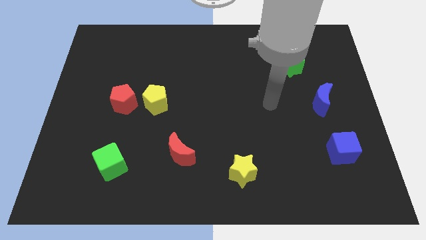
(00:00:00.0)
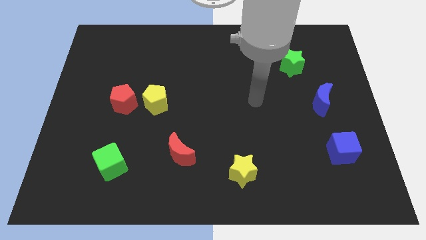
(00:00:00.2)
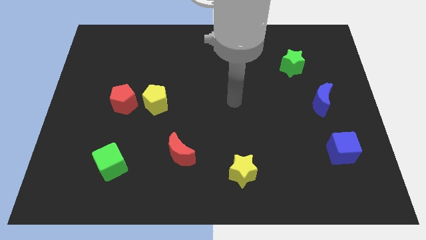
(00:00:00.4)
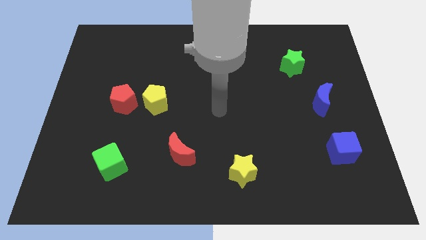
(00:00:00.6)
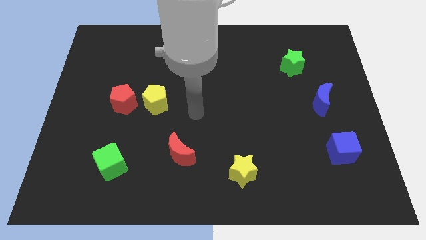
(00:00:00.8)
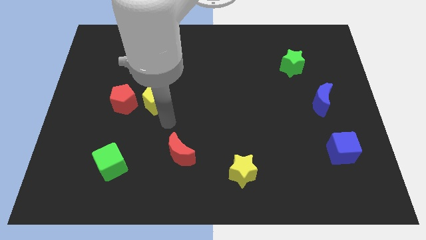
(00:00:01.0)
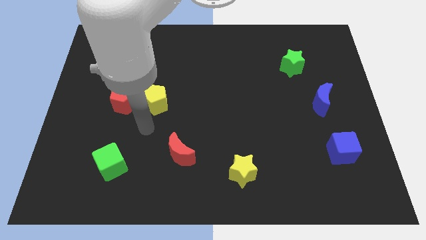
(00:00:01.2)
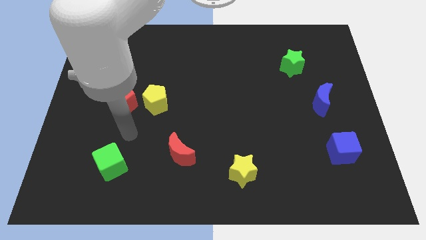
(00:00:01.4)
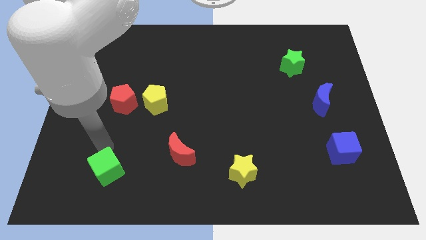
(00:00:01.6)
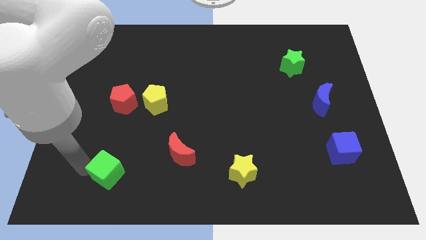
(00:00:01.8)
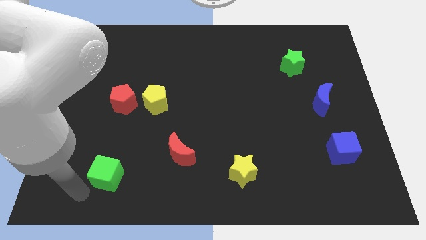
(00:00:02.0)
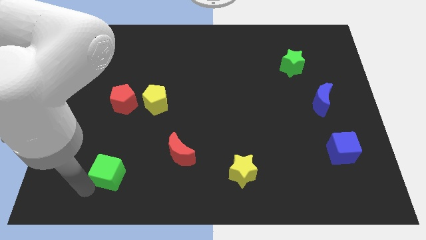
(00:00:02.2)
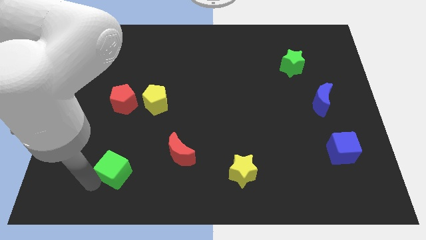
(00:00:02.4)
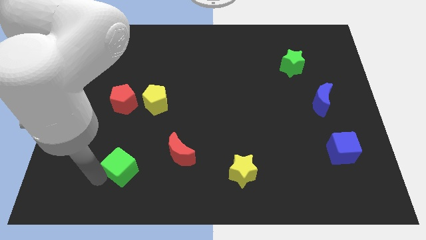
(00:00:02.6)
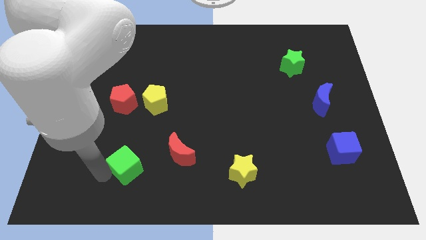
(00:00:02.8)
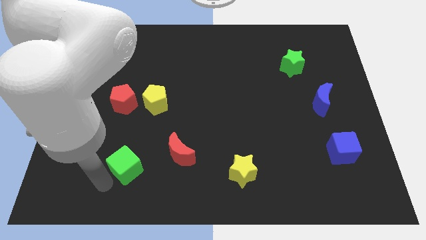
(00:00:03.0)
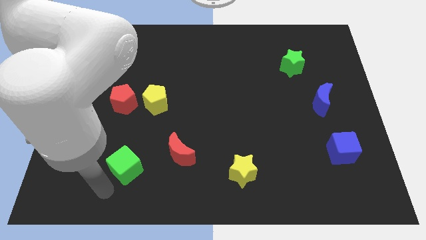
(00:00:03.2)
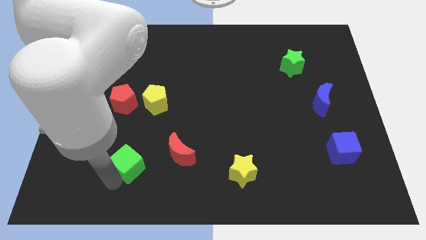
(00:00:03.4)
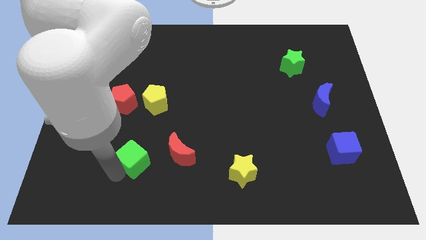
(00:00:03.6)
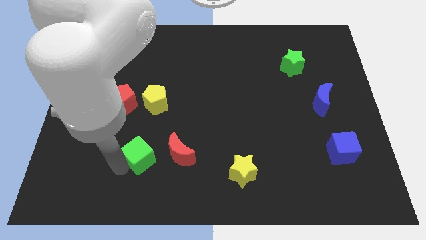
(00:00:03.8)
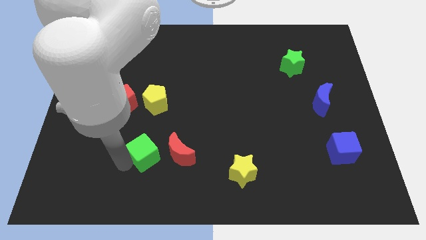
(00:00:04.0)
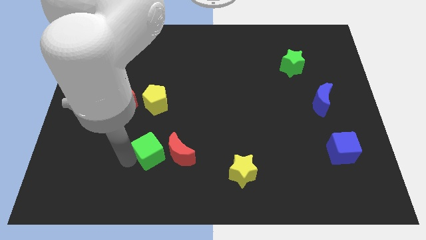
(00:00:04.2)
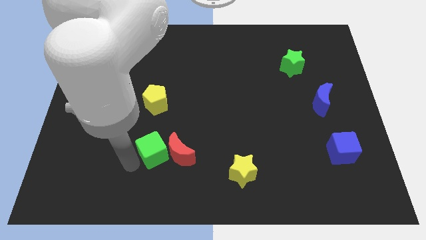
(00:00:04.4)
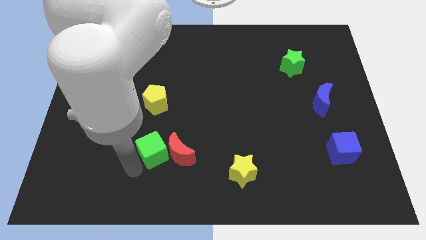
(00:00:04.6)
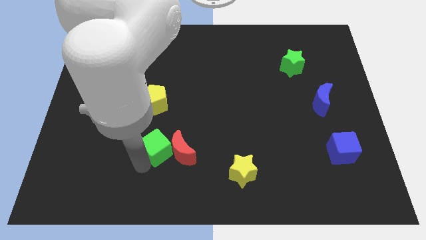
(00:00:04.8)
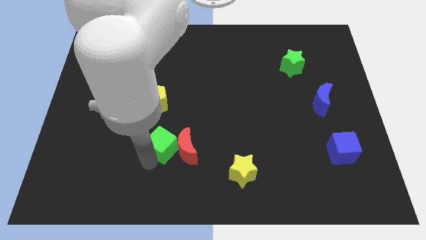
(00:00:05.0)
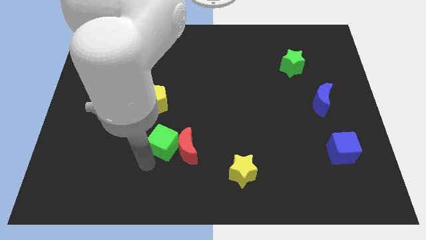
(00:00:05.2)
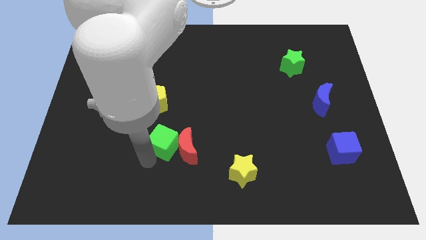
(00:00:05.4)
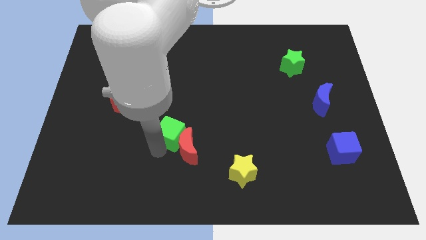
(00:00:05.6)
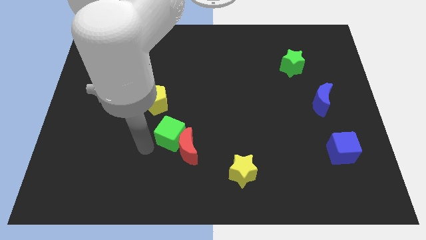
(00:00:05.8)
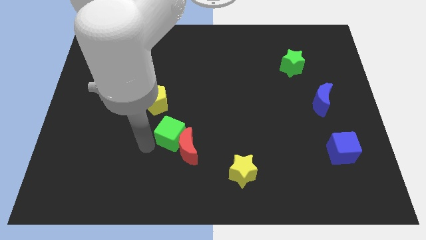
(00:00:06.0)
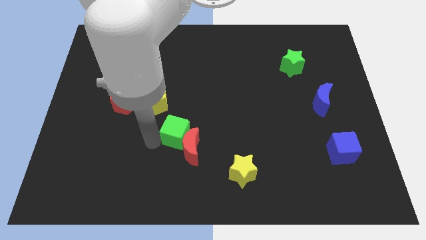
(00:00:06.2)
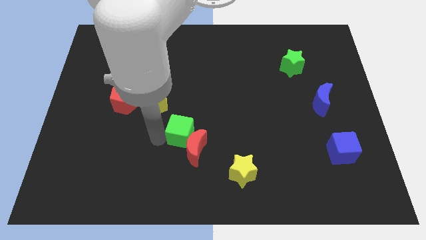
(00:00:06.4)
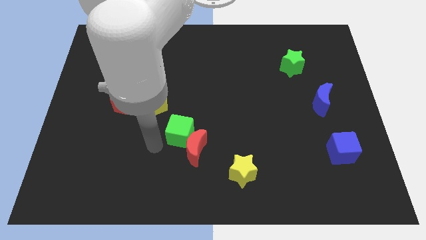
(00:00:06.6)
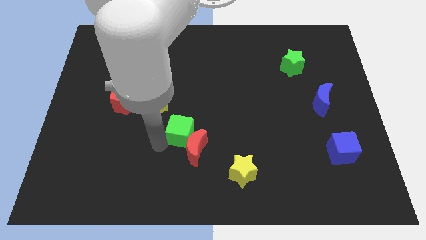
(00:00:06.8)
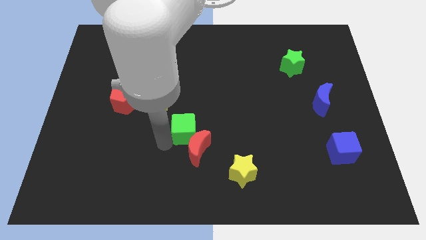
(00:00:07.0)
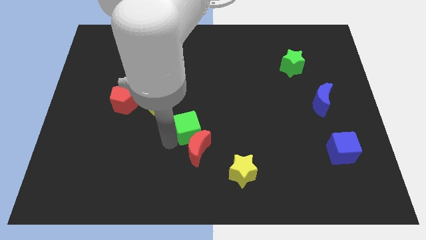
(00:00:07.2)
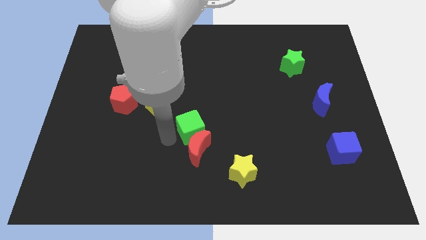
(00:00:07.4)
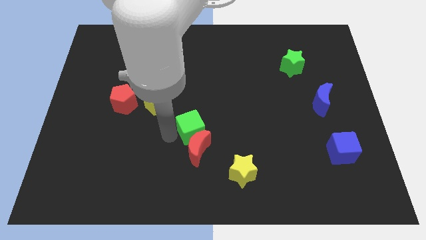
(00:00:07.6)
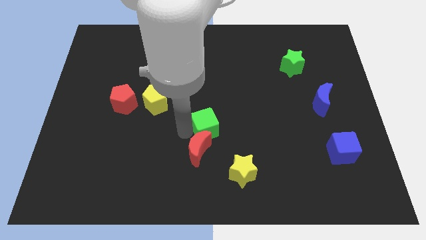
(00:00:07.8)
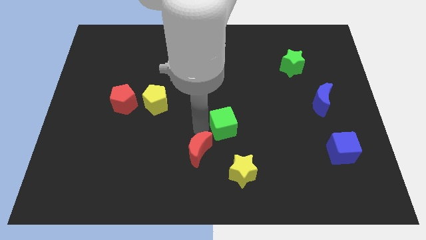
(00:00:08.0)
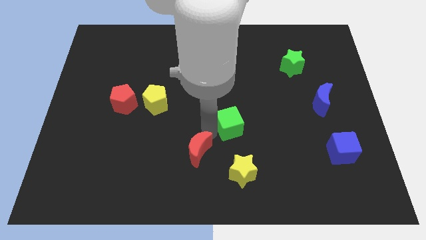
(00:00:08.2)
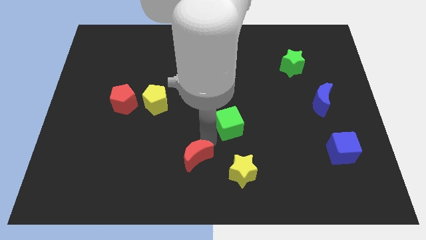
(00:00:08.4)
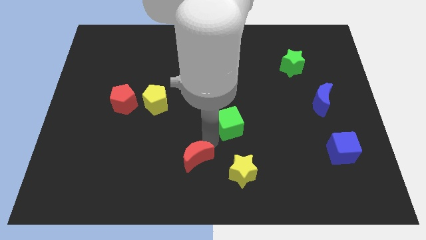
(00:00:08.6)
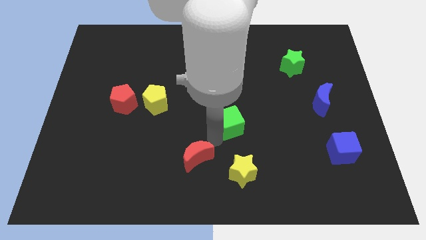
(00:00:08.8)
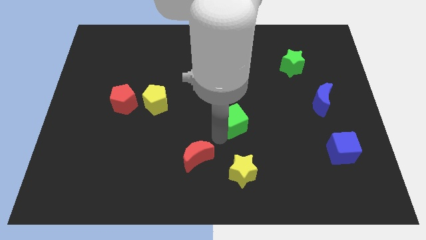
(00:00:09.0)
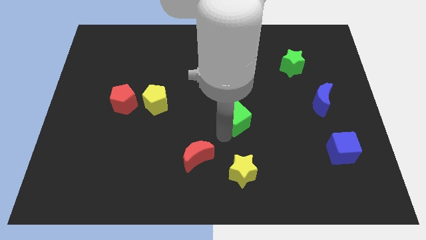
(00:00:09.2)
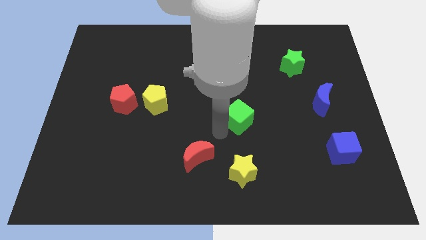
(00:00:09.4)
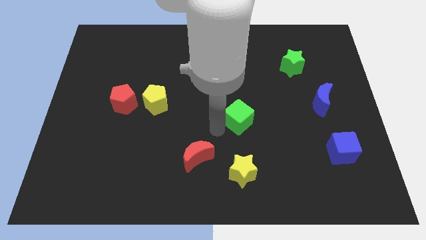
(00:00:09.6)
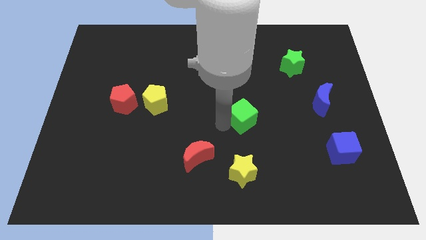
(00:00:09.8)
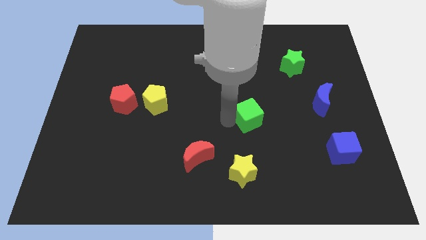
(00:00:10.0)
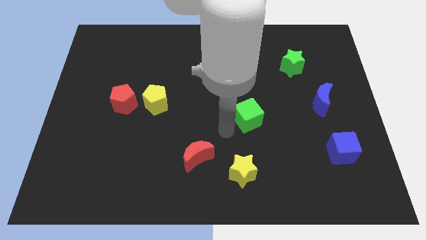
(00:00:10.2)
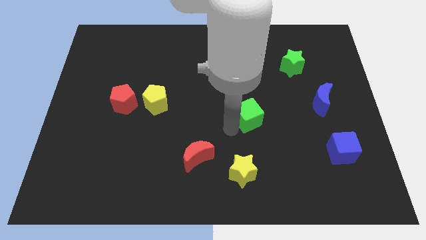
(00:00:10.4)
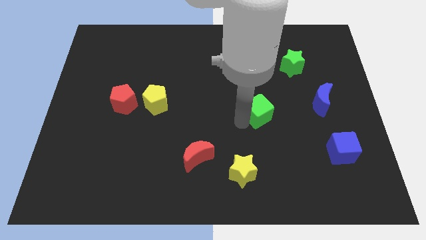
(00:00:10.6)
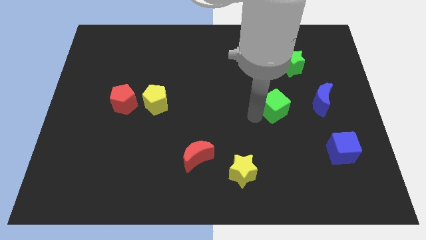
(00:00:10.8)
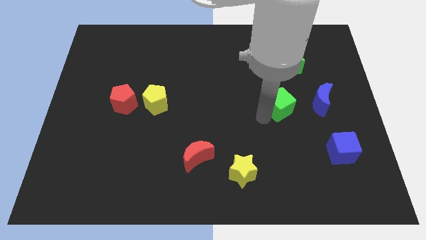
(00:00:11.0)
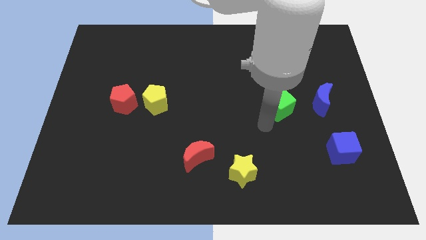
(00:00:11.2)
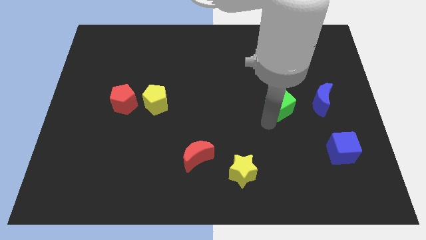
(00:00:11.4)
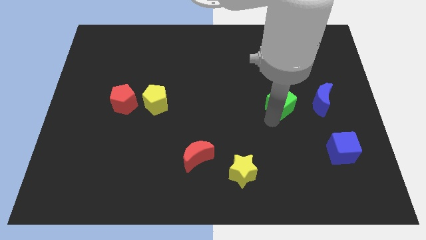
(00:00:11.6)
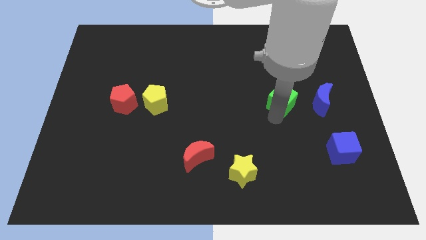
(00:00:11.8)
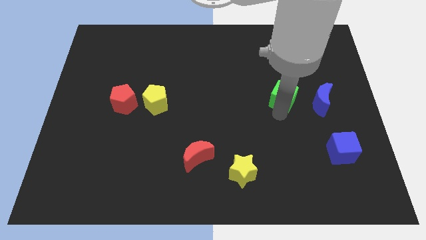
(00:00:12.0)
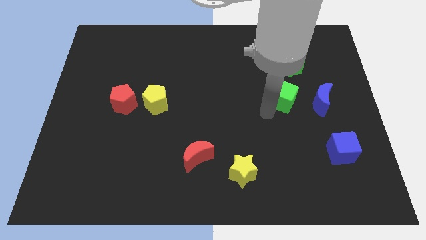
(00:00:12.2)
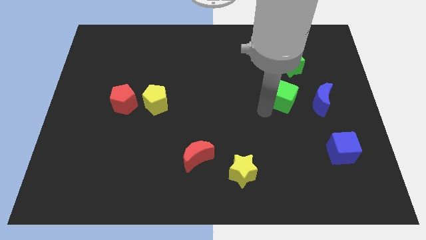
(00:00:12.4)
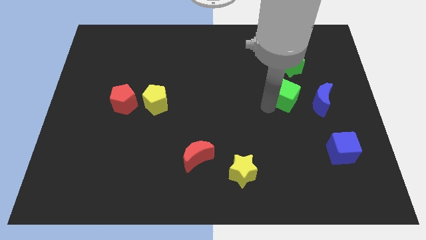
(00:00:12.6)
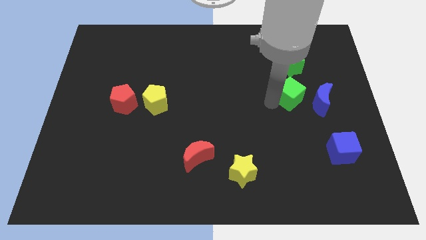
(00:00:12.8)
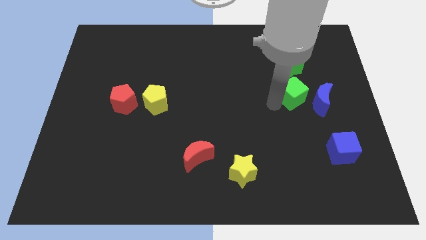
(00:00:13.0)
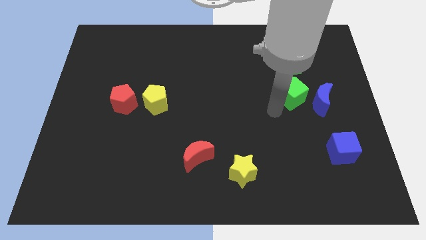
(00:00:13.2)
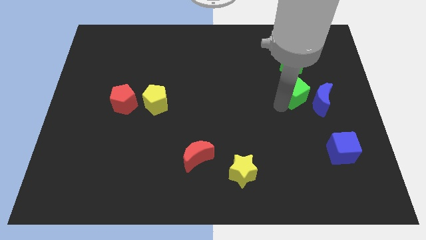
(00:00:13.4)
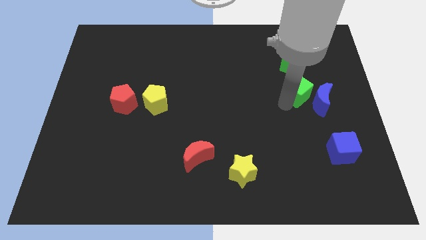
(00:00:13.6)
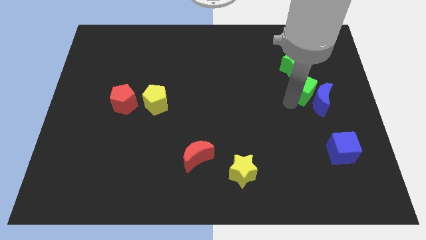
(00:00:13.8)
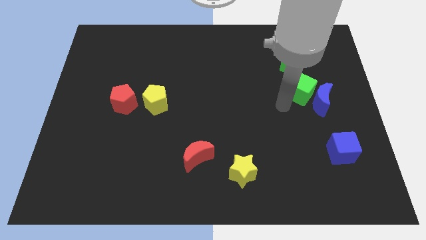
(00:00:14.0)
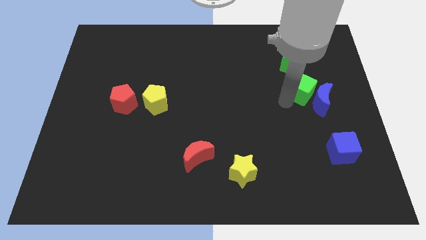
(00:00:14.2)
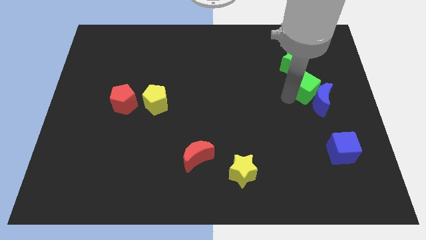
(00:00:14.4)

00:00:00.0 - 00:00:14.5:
put the green cube diagonally down and to the right of the green star
